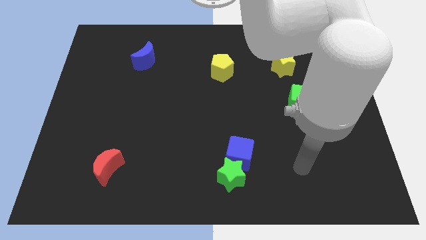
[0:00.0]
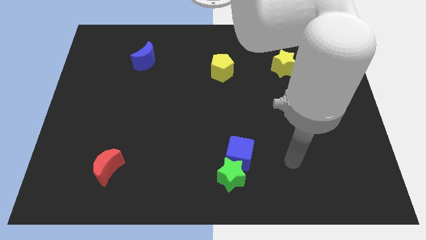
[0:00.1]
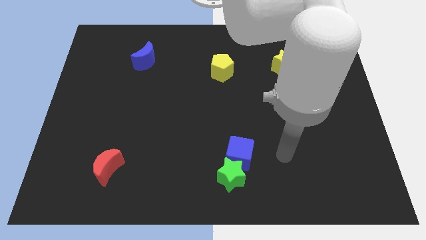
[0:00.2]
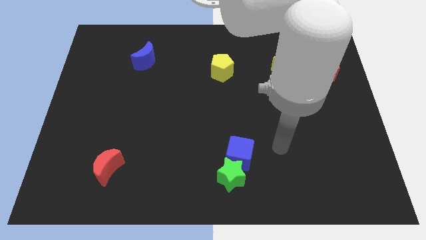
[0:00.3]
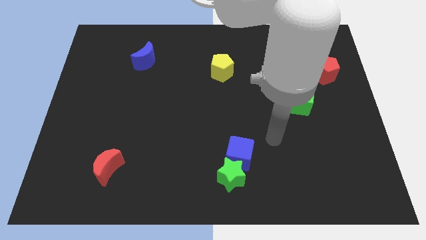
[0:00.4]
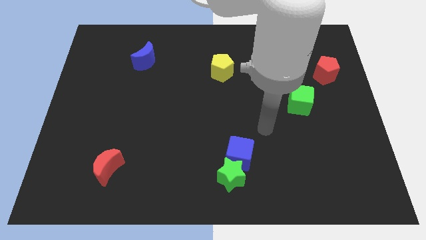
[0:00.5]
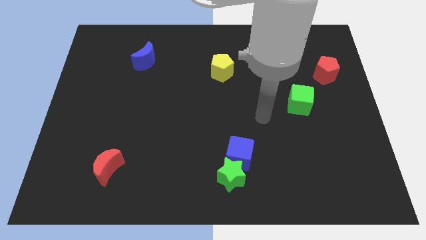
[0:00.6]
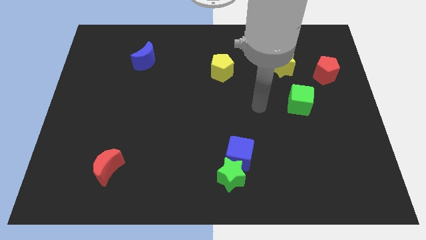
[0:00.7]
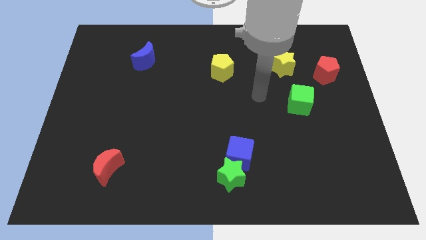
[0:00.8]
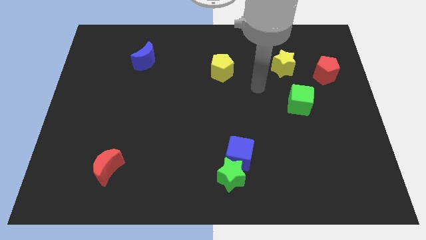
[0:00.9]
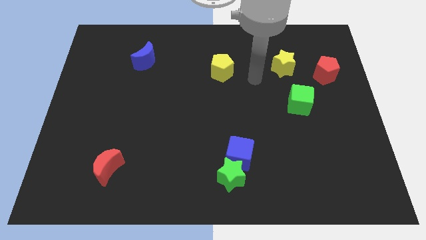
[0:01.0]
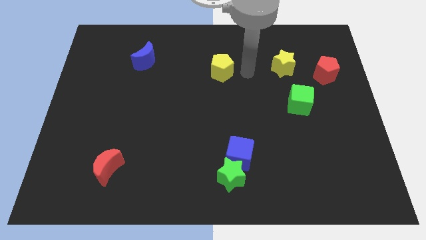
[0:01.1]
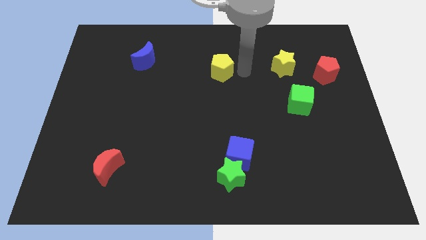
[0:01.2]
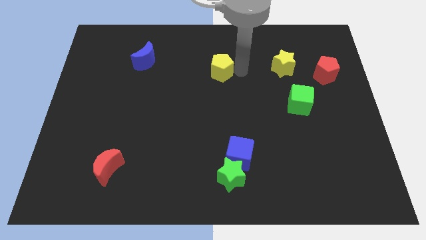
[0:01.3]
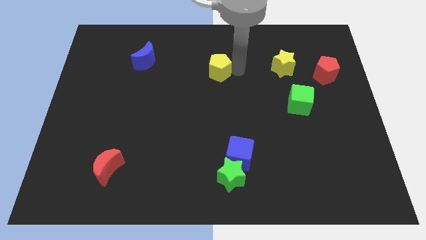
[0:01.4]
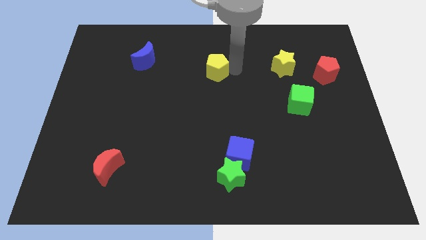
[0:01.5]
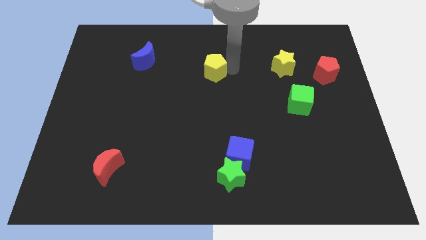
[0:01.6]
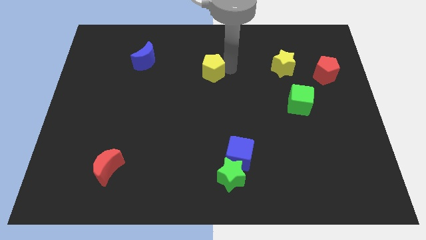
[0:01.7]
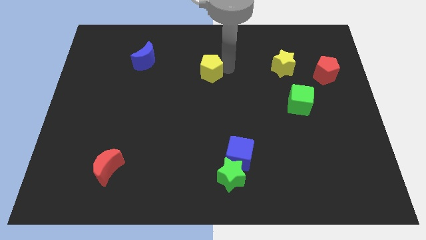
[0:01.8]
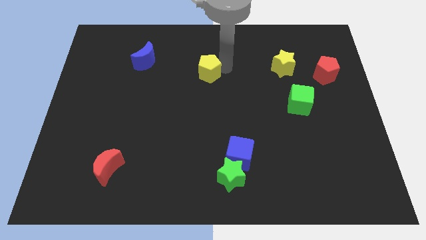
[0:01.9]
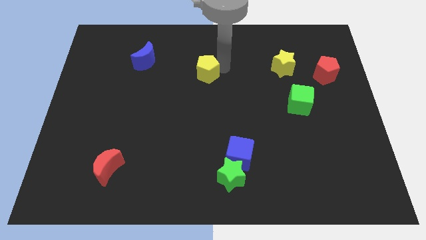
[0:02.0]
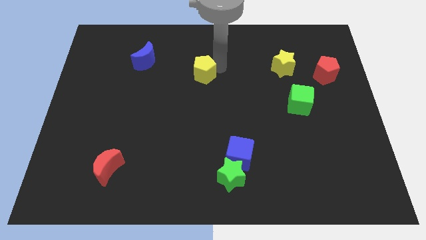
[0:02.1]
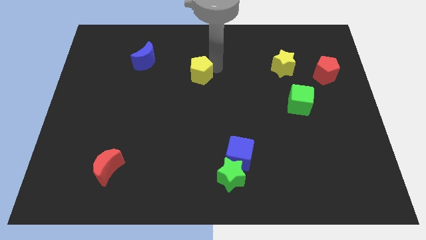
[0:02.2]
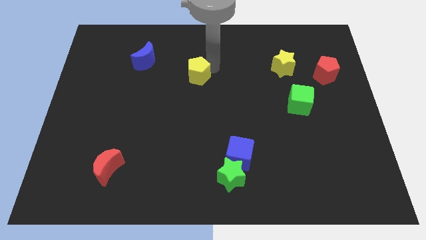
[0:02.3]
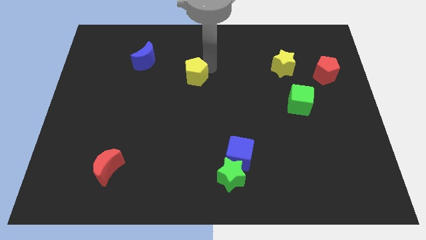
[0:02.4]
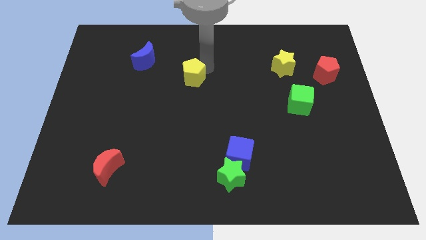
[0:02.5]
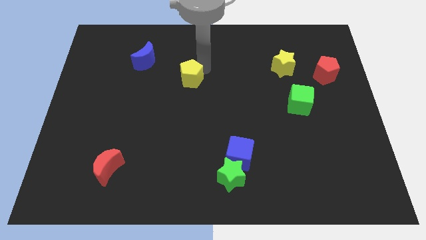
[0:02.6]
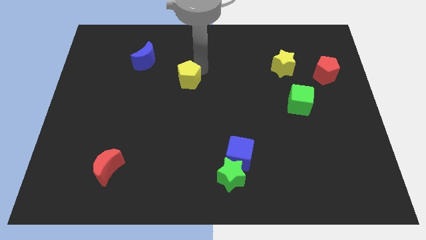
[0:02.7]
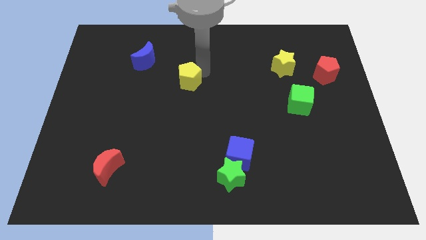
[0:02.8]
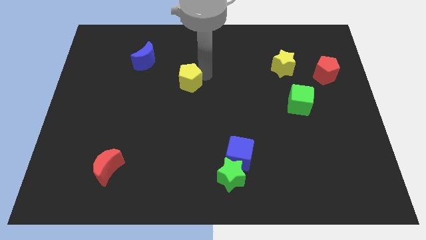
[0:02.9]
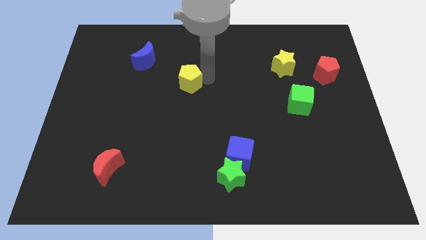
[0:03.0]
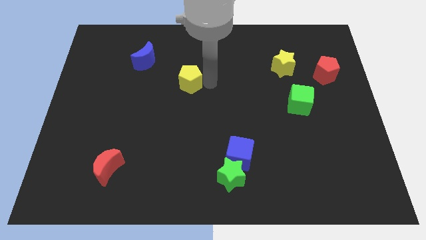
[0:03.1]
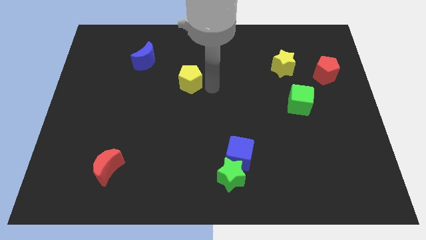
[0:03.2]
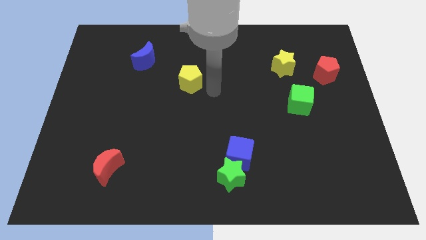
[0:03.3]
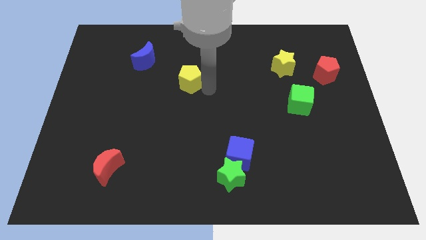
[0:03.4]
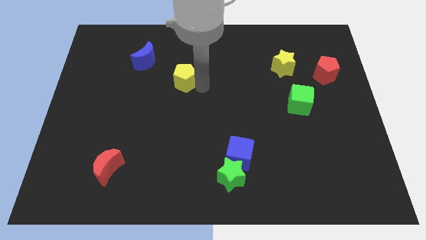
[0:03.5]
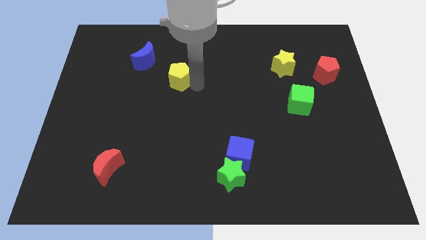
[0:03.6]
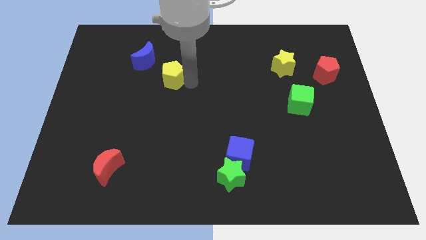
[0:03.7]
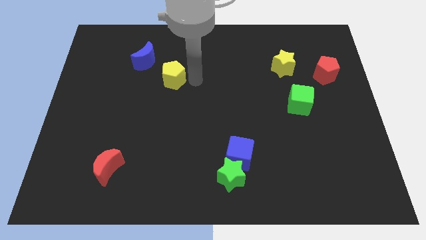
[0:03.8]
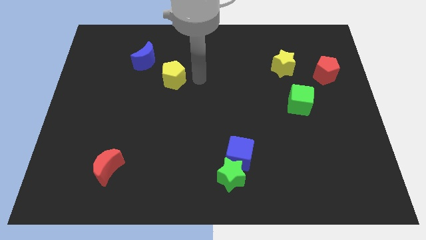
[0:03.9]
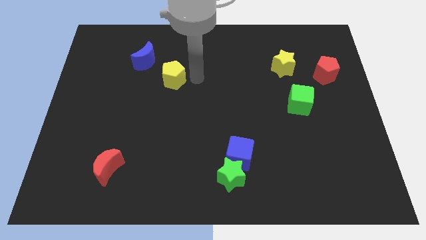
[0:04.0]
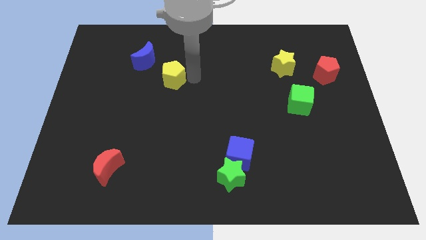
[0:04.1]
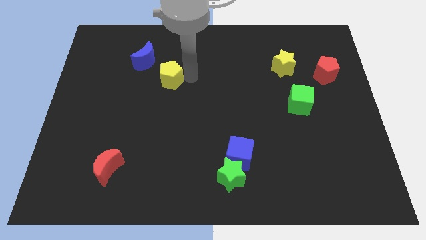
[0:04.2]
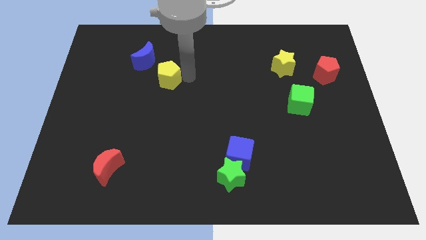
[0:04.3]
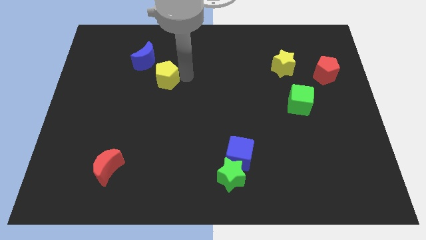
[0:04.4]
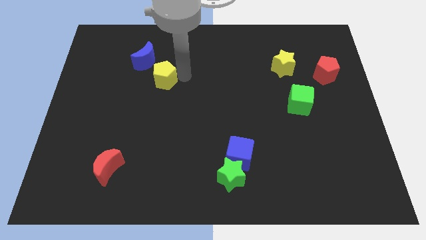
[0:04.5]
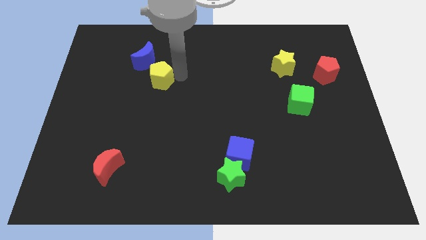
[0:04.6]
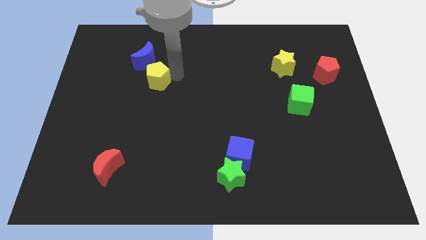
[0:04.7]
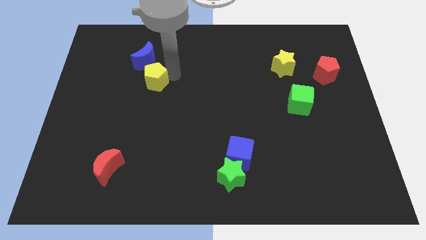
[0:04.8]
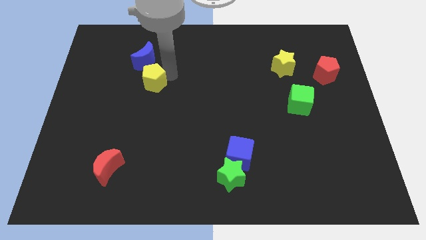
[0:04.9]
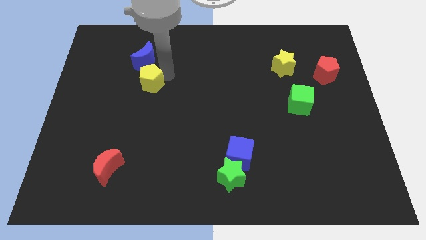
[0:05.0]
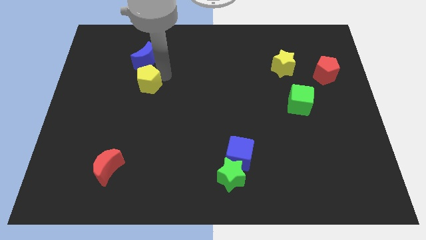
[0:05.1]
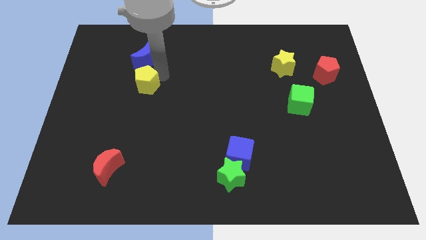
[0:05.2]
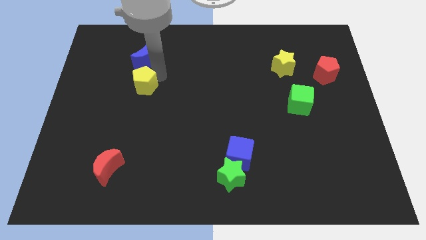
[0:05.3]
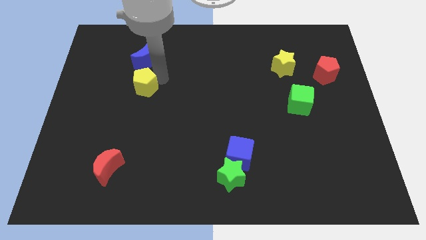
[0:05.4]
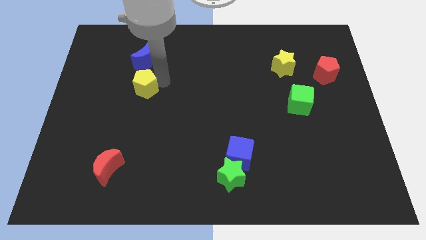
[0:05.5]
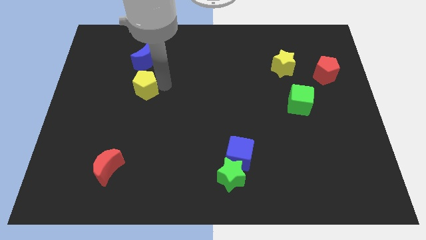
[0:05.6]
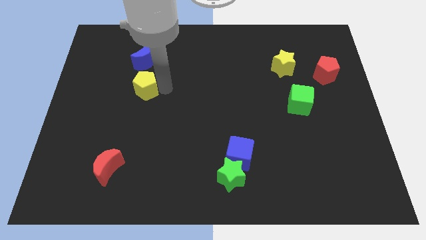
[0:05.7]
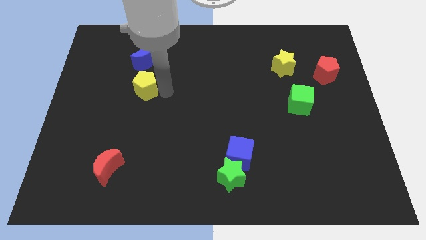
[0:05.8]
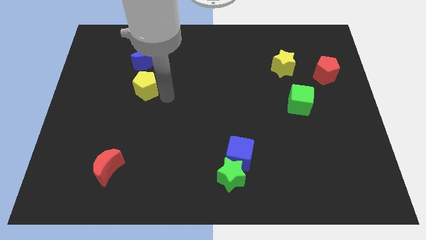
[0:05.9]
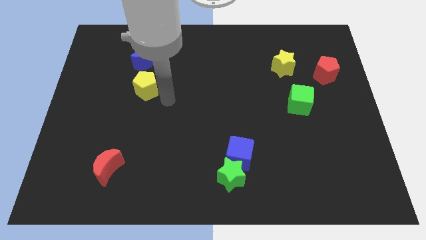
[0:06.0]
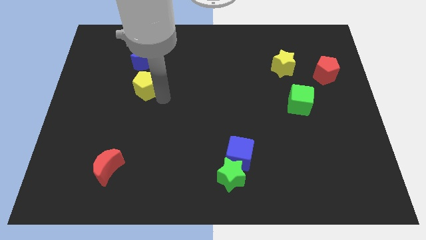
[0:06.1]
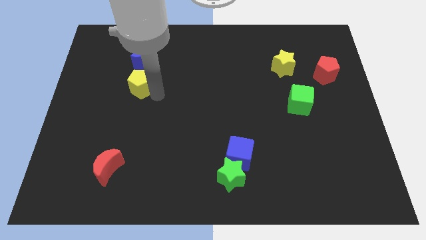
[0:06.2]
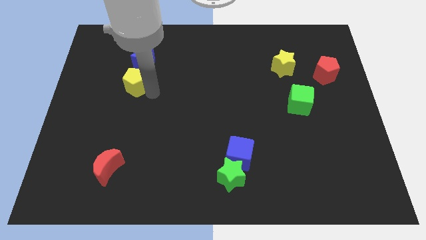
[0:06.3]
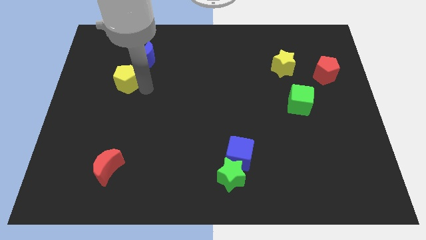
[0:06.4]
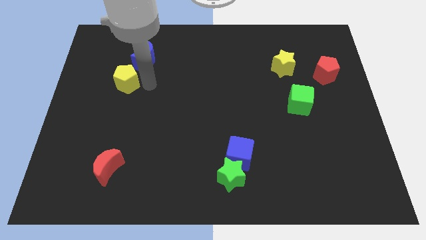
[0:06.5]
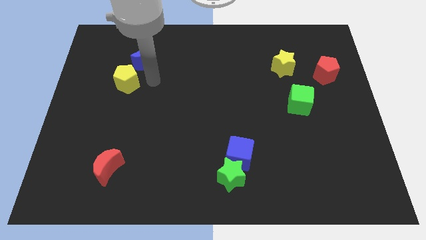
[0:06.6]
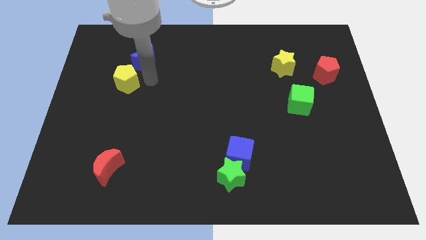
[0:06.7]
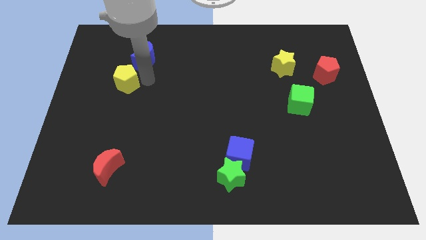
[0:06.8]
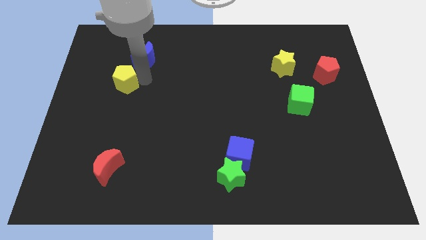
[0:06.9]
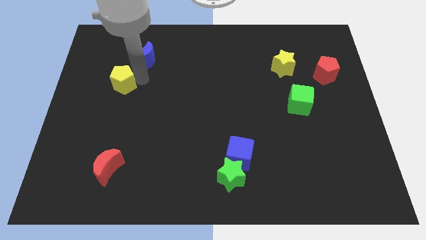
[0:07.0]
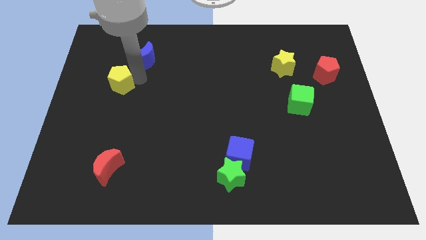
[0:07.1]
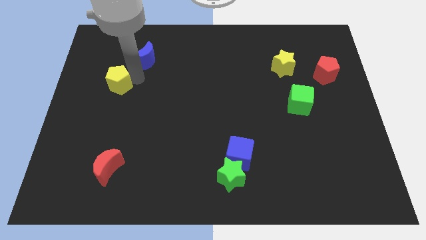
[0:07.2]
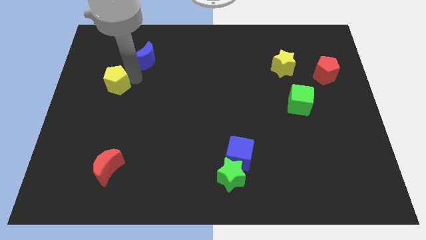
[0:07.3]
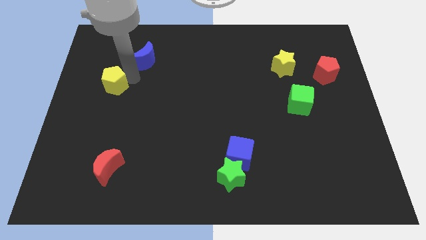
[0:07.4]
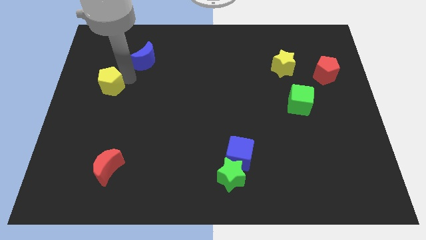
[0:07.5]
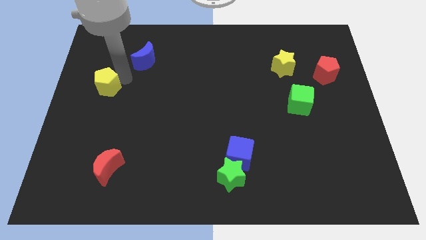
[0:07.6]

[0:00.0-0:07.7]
slide the yellow pentagon to the left side of the board
